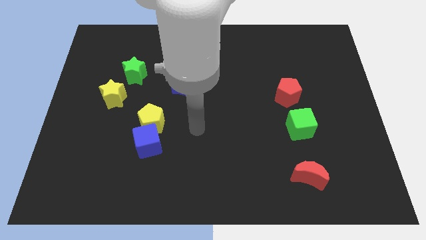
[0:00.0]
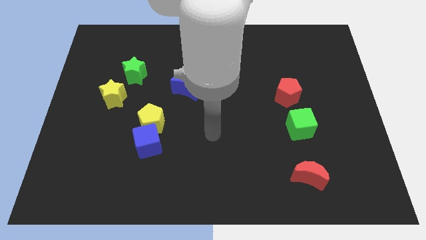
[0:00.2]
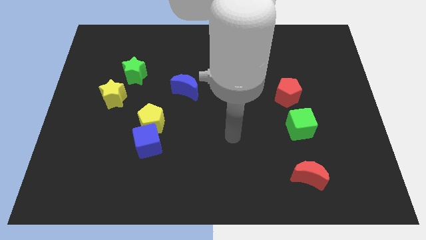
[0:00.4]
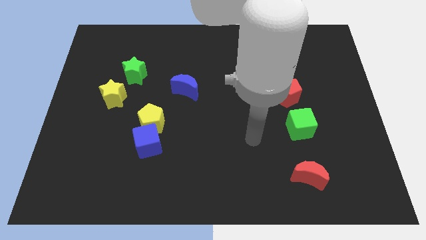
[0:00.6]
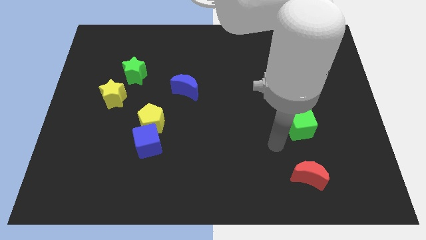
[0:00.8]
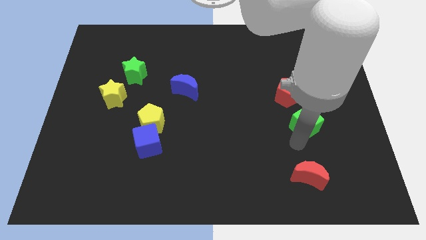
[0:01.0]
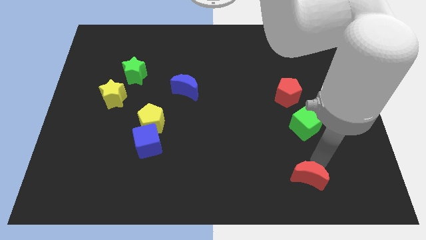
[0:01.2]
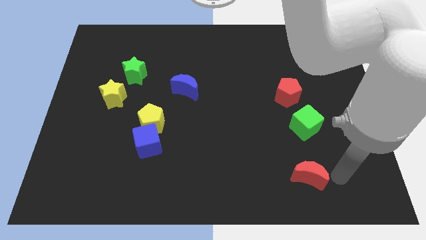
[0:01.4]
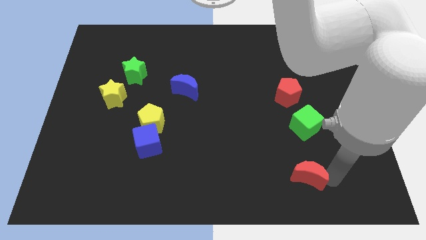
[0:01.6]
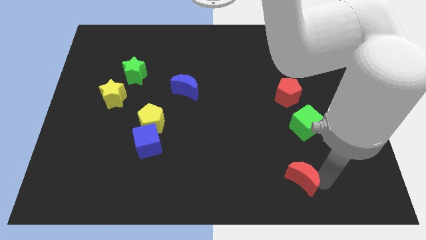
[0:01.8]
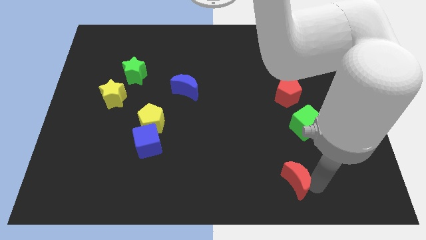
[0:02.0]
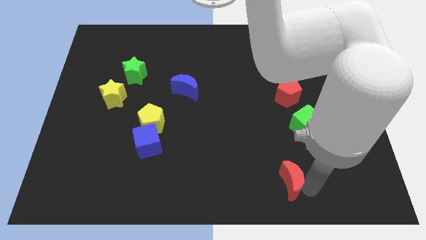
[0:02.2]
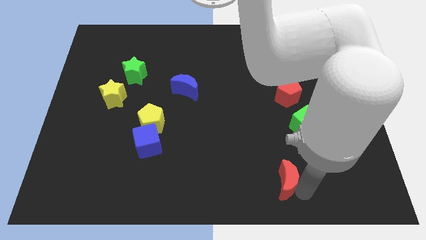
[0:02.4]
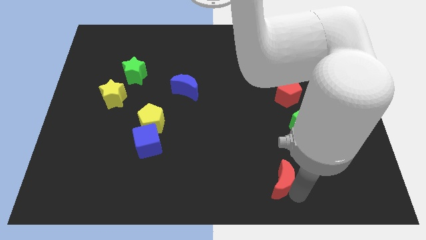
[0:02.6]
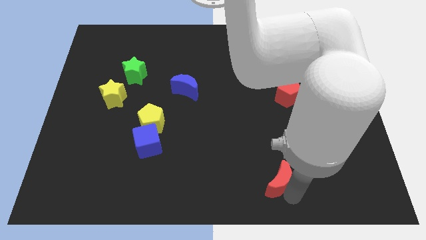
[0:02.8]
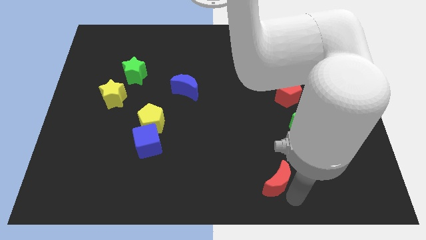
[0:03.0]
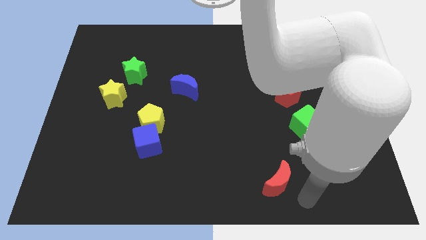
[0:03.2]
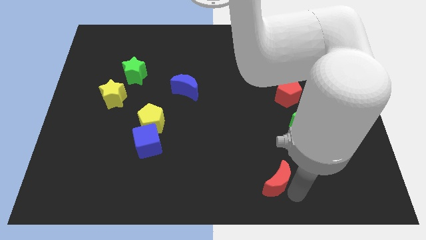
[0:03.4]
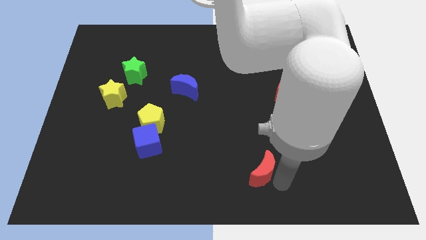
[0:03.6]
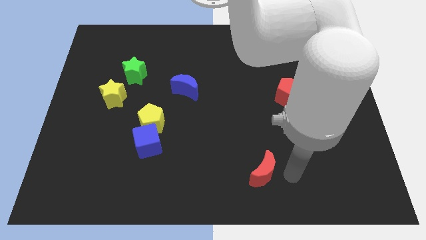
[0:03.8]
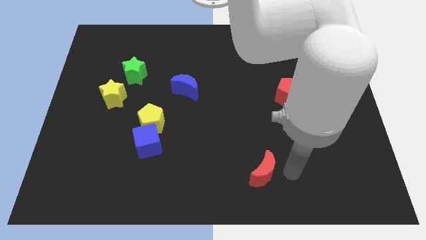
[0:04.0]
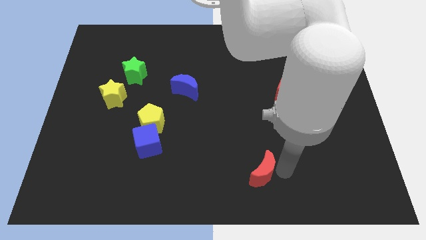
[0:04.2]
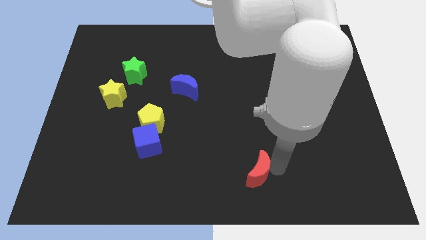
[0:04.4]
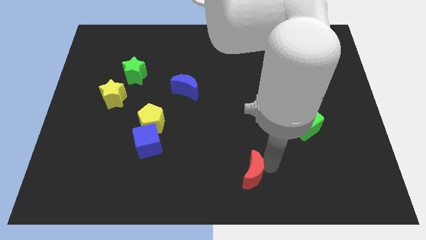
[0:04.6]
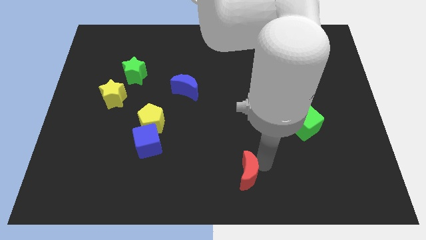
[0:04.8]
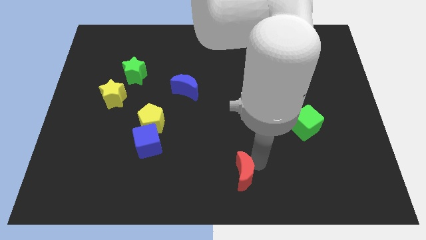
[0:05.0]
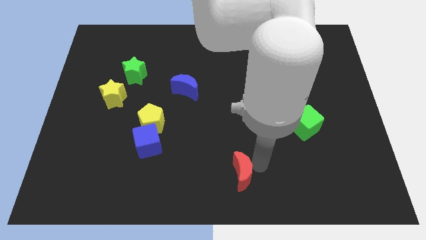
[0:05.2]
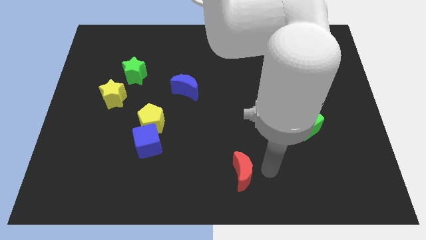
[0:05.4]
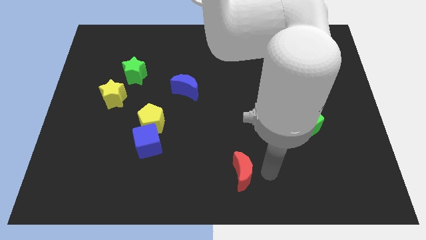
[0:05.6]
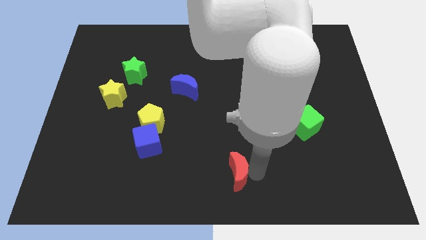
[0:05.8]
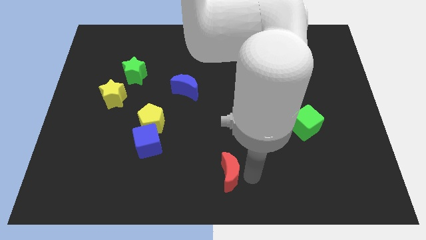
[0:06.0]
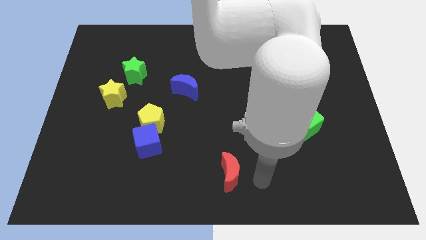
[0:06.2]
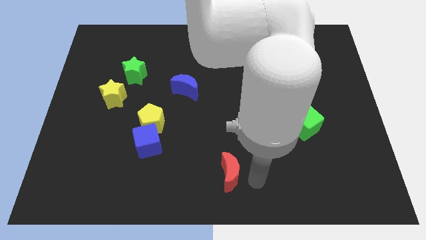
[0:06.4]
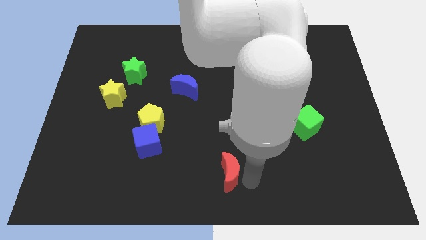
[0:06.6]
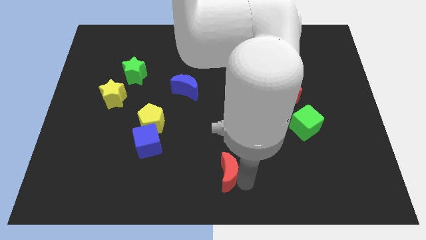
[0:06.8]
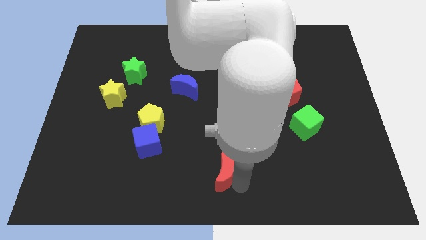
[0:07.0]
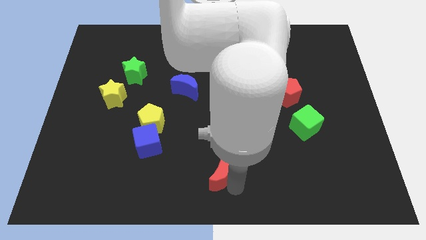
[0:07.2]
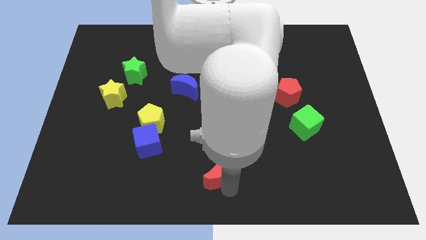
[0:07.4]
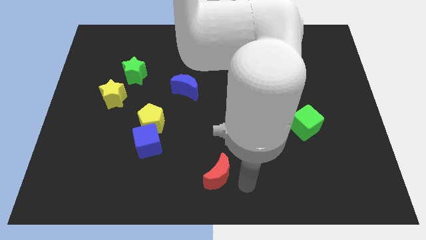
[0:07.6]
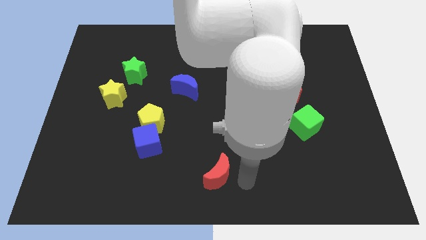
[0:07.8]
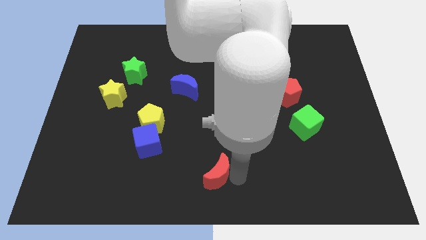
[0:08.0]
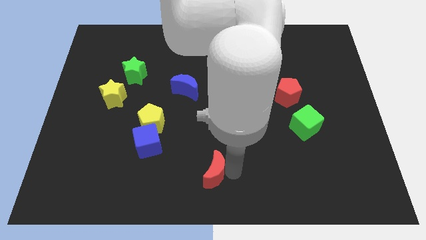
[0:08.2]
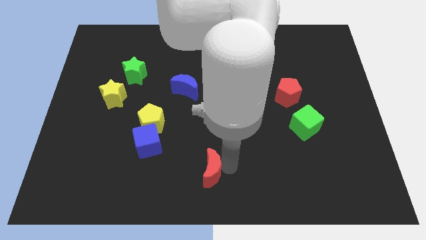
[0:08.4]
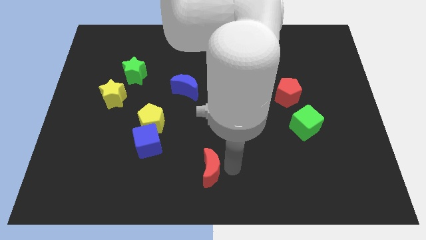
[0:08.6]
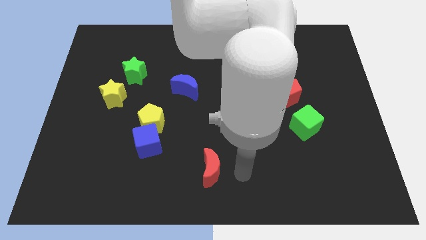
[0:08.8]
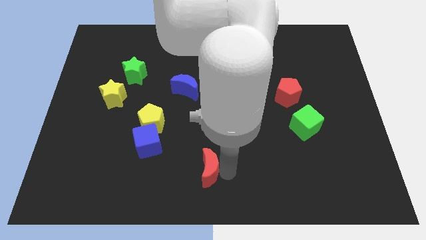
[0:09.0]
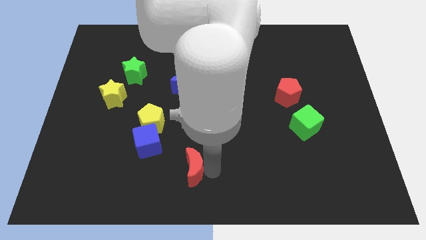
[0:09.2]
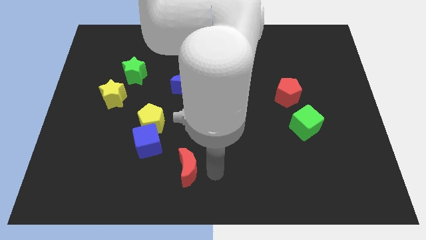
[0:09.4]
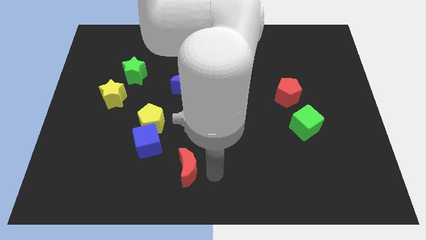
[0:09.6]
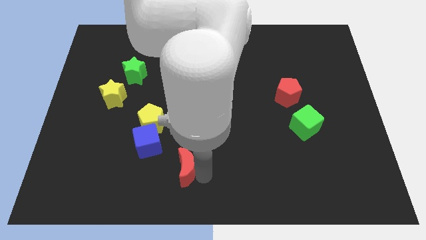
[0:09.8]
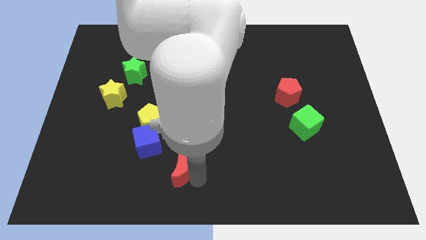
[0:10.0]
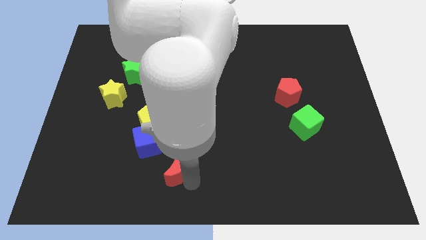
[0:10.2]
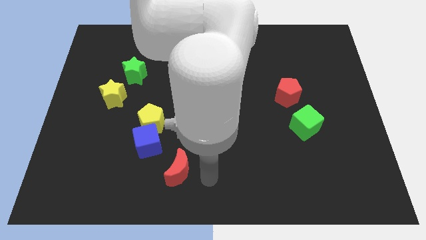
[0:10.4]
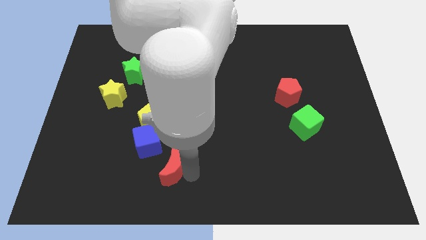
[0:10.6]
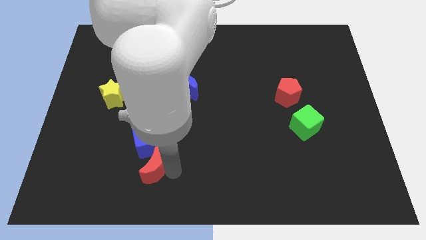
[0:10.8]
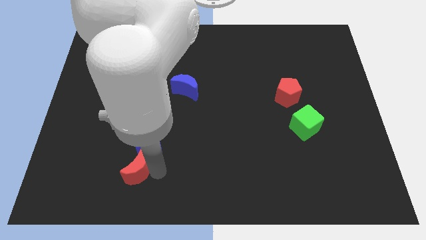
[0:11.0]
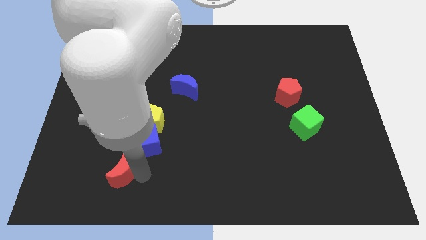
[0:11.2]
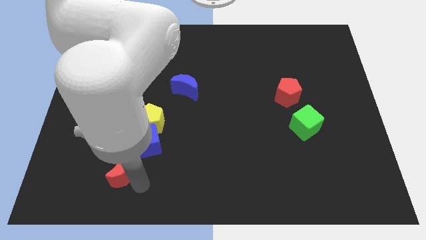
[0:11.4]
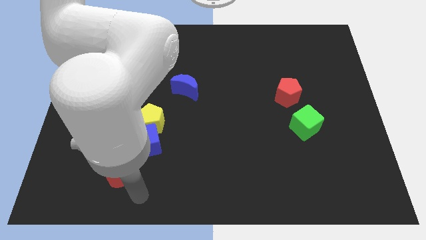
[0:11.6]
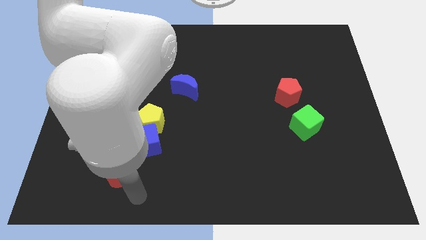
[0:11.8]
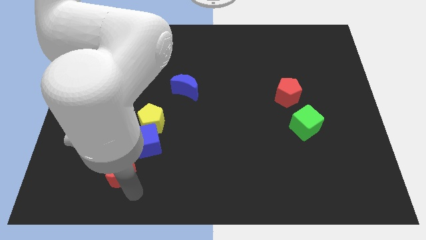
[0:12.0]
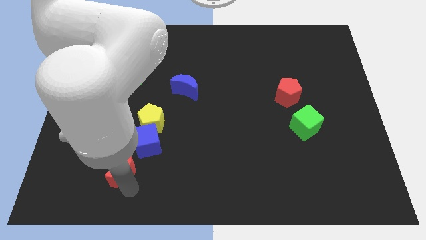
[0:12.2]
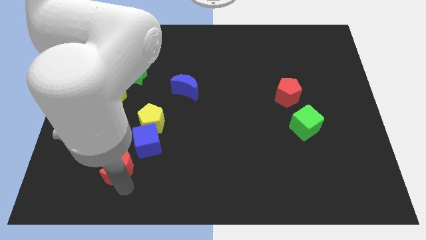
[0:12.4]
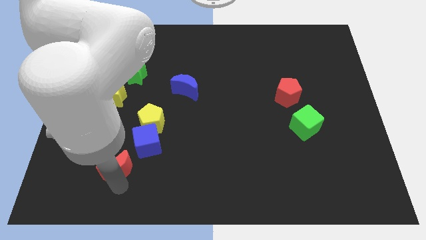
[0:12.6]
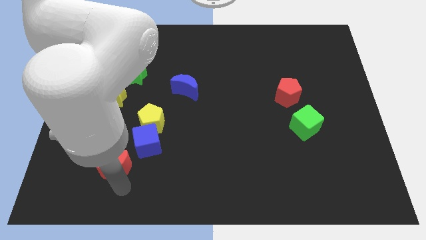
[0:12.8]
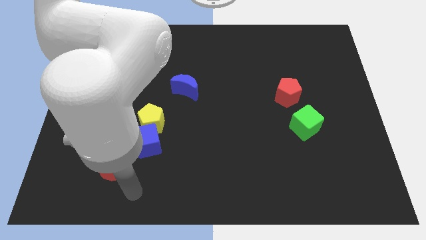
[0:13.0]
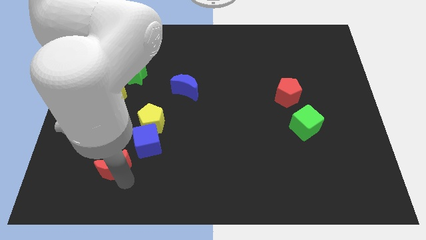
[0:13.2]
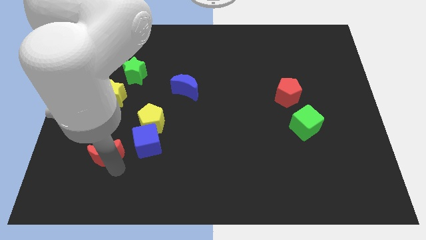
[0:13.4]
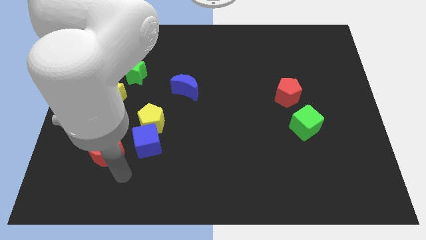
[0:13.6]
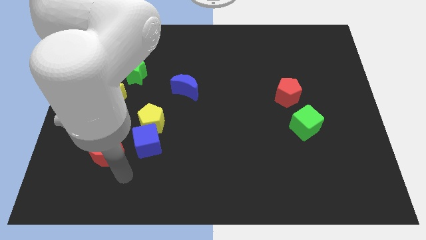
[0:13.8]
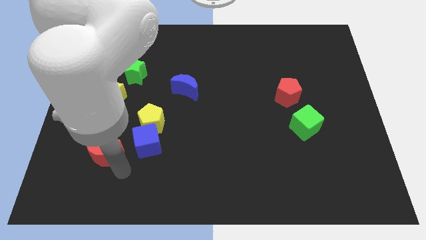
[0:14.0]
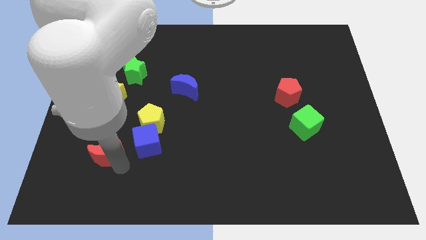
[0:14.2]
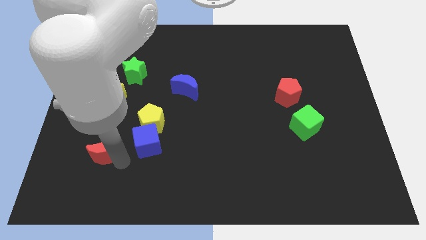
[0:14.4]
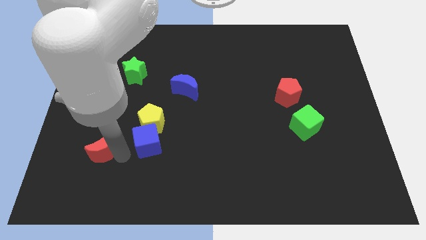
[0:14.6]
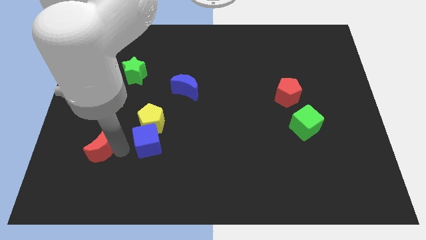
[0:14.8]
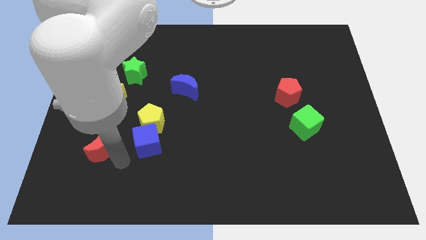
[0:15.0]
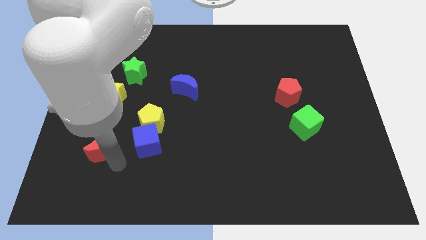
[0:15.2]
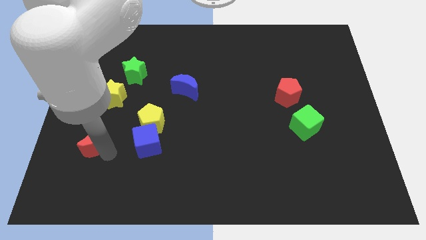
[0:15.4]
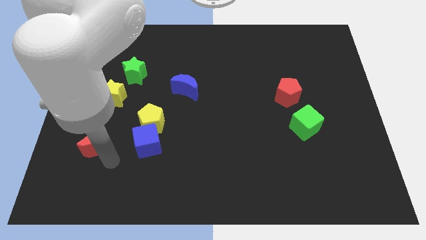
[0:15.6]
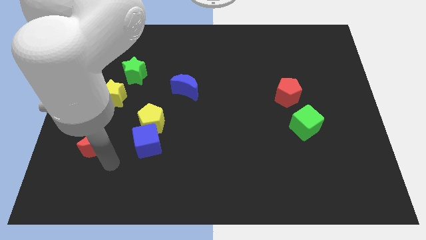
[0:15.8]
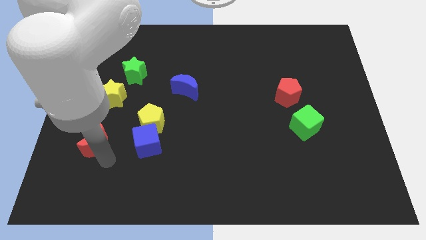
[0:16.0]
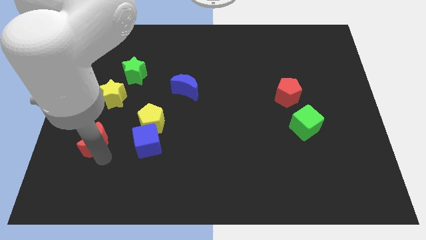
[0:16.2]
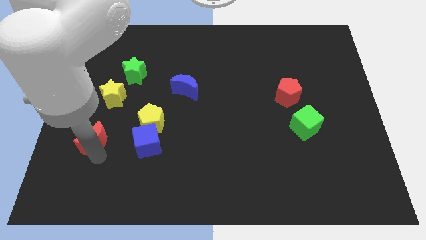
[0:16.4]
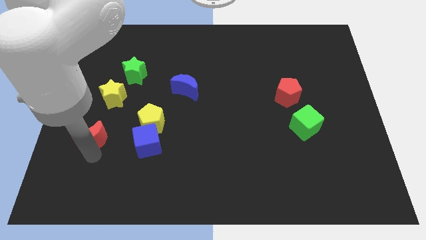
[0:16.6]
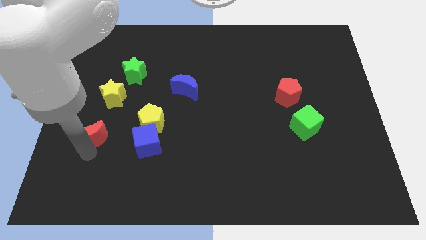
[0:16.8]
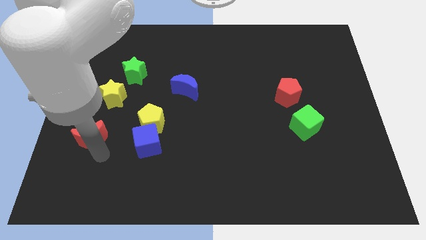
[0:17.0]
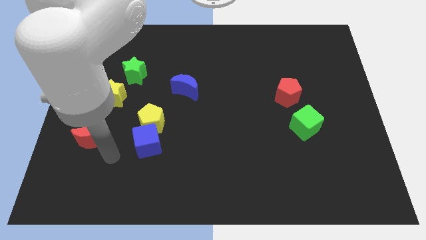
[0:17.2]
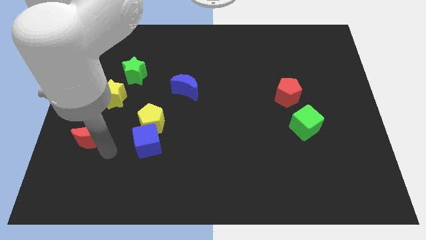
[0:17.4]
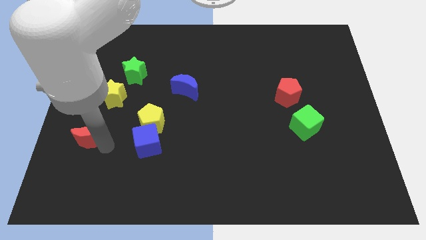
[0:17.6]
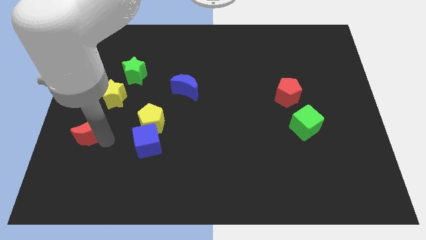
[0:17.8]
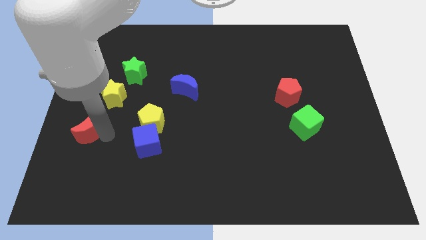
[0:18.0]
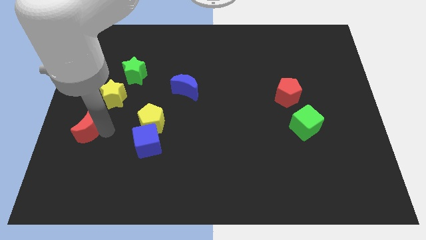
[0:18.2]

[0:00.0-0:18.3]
slide the red moon to the left side of the board
